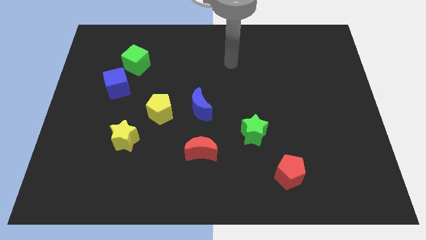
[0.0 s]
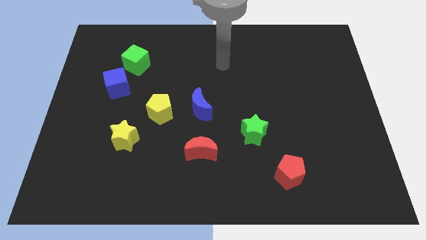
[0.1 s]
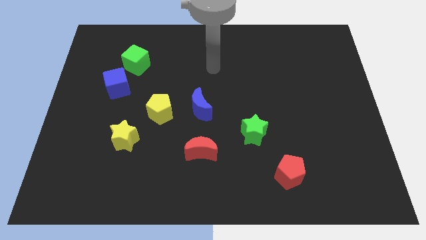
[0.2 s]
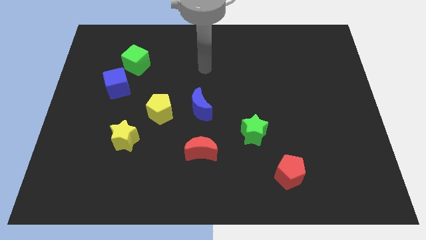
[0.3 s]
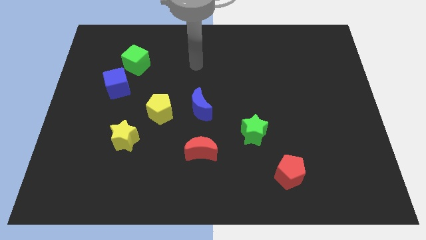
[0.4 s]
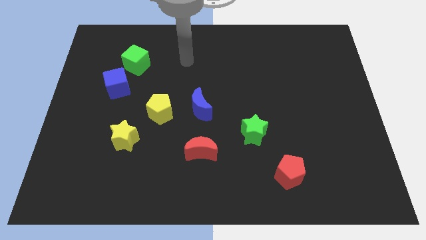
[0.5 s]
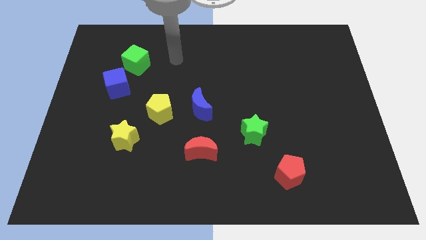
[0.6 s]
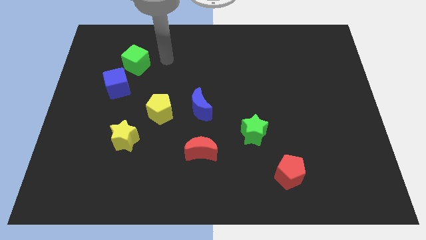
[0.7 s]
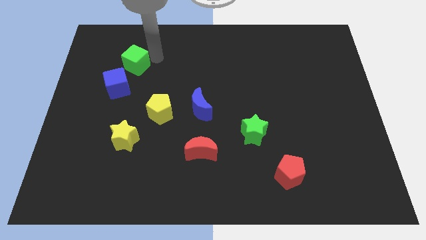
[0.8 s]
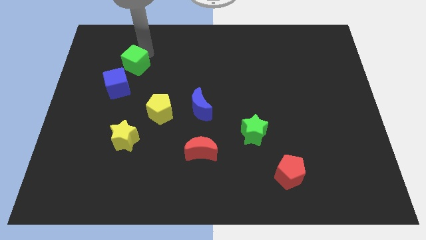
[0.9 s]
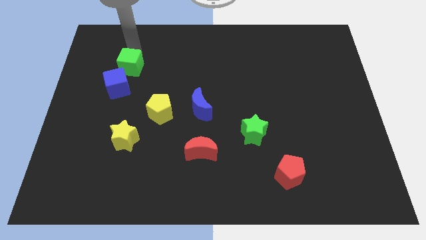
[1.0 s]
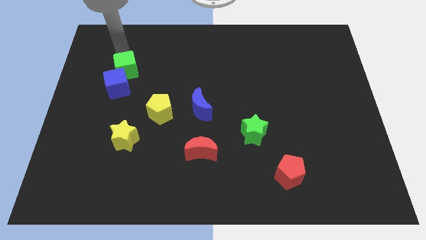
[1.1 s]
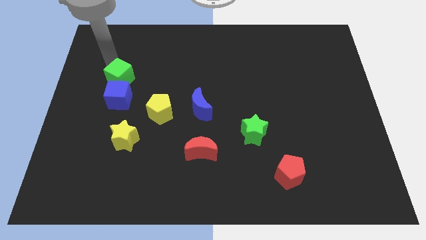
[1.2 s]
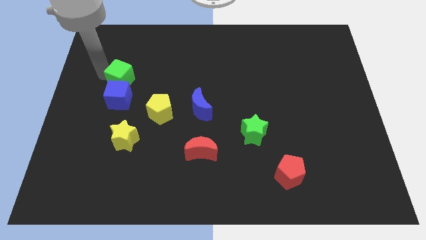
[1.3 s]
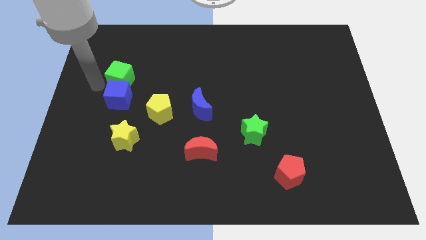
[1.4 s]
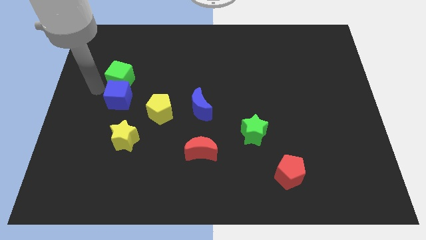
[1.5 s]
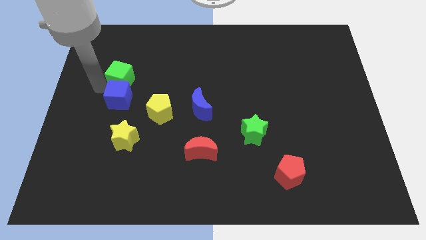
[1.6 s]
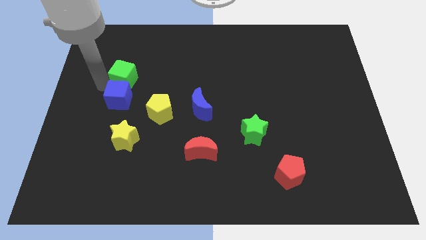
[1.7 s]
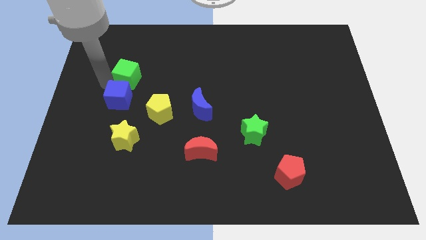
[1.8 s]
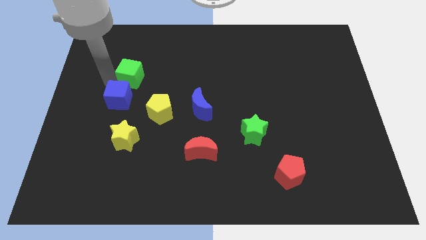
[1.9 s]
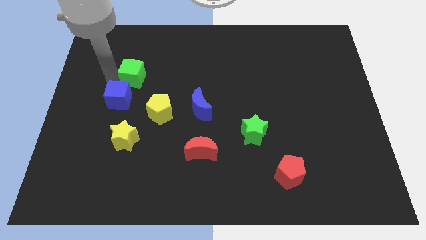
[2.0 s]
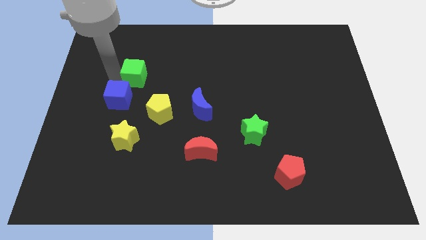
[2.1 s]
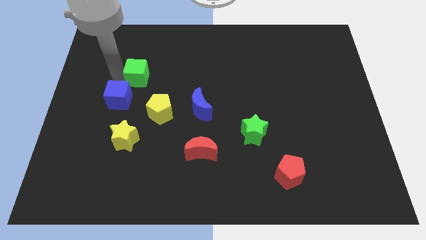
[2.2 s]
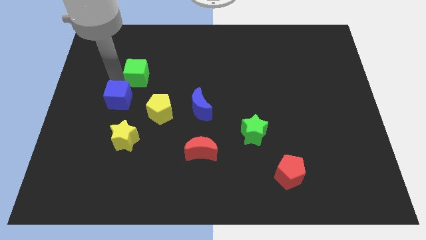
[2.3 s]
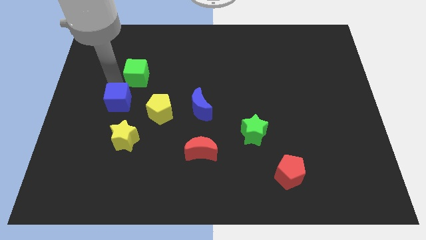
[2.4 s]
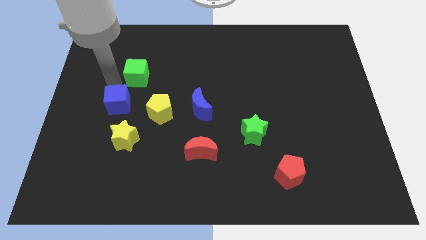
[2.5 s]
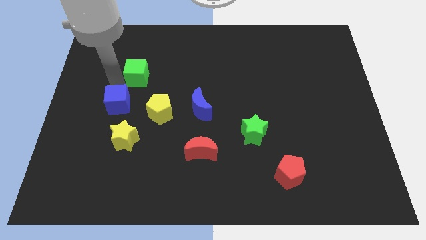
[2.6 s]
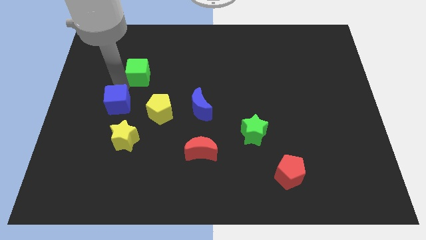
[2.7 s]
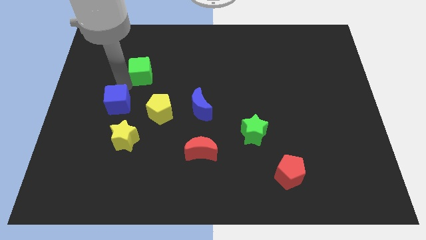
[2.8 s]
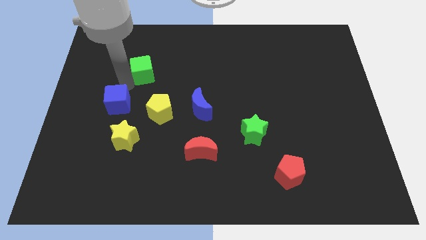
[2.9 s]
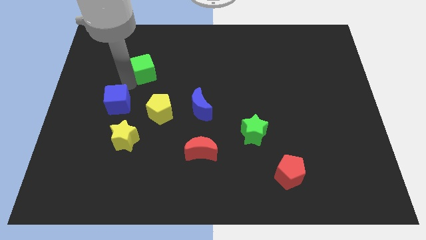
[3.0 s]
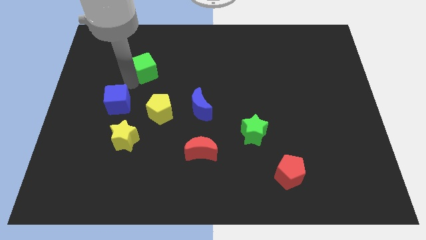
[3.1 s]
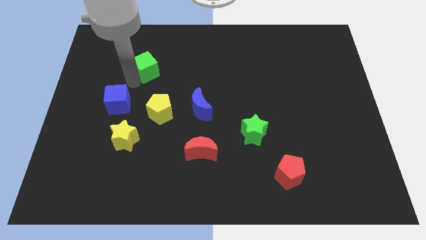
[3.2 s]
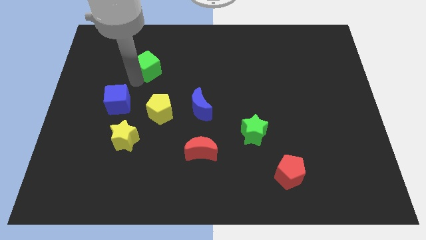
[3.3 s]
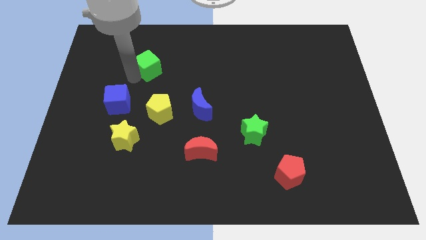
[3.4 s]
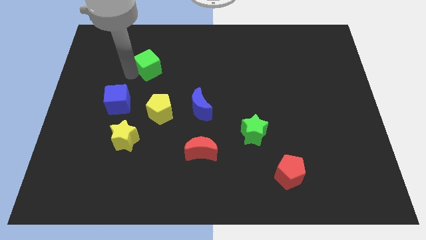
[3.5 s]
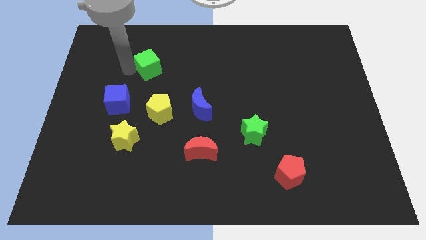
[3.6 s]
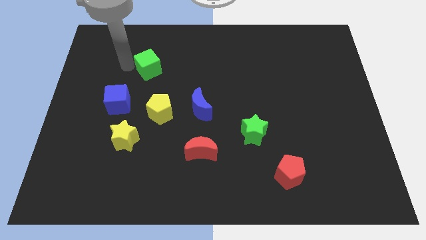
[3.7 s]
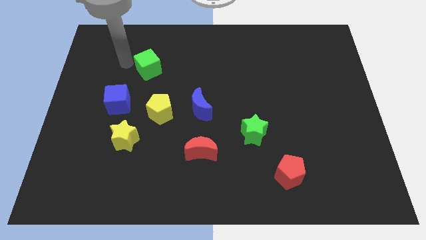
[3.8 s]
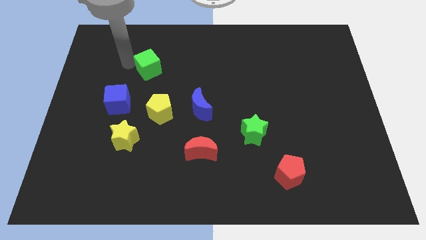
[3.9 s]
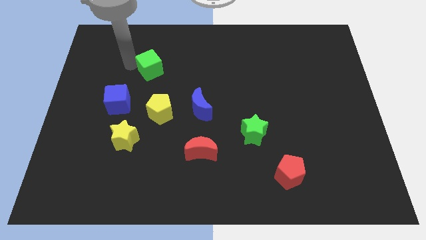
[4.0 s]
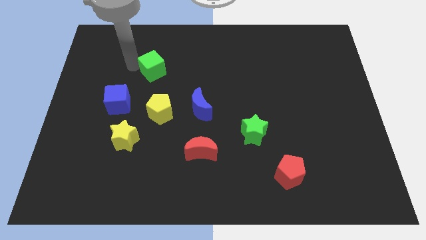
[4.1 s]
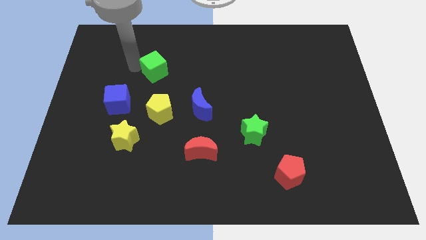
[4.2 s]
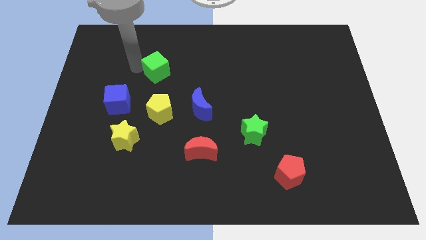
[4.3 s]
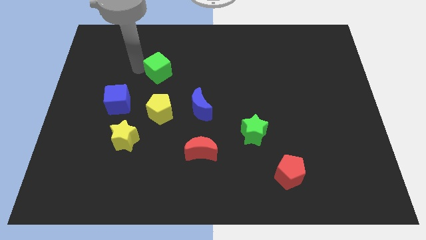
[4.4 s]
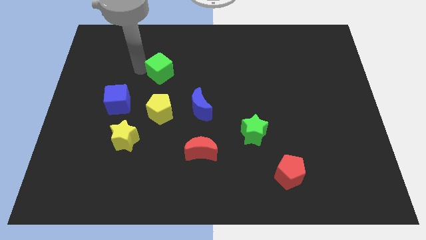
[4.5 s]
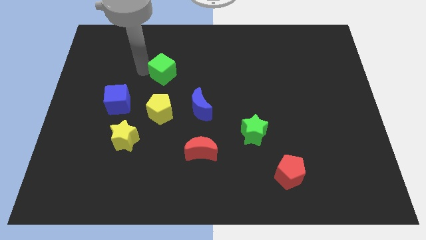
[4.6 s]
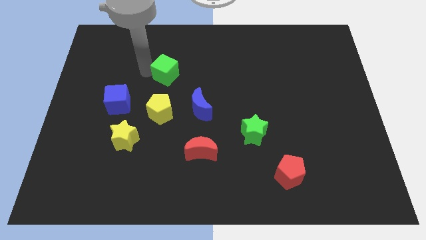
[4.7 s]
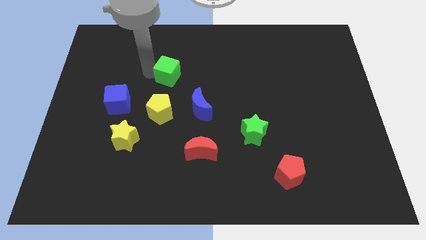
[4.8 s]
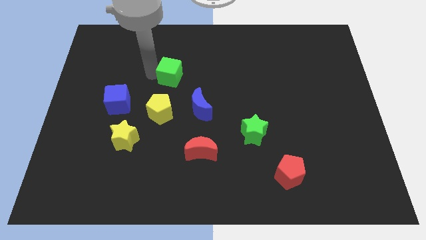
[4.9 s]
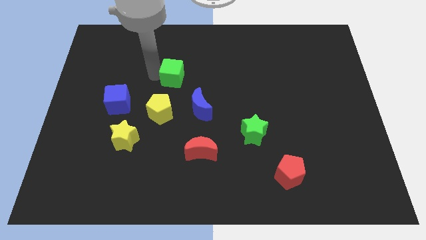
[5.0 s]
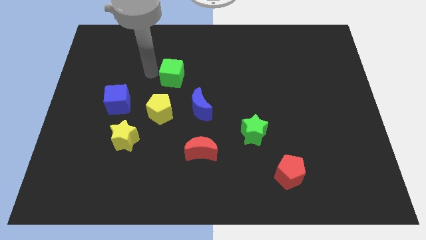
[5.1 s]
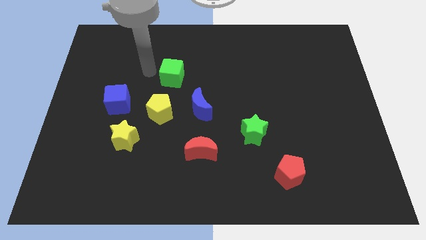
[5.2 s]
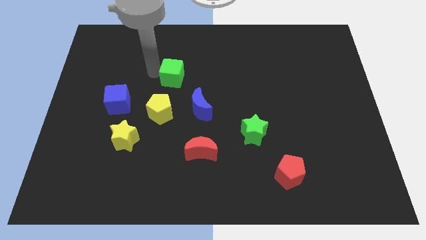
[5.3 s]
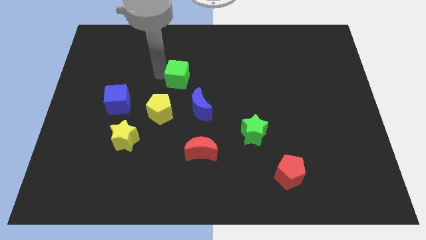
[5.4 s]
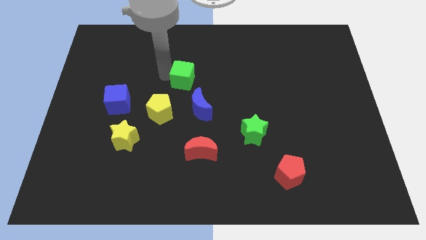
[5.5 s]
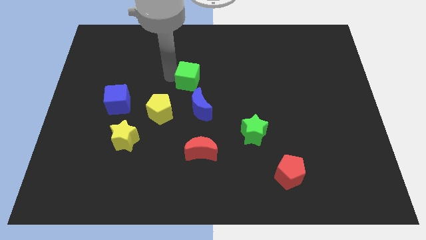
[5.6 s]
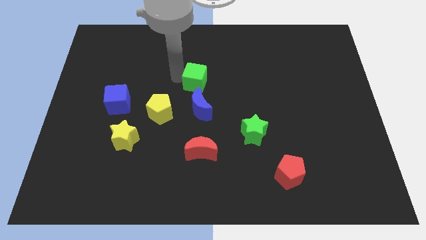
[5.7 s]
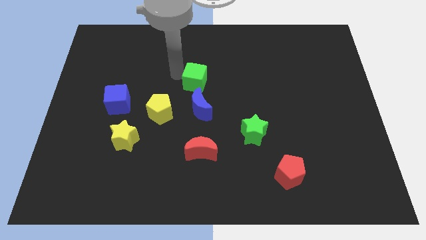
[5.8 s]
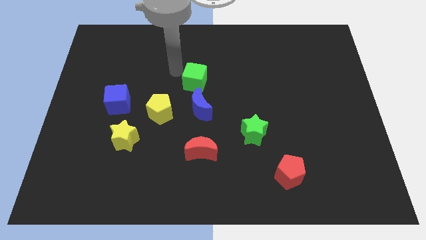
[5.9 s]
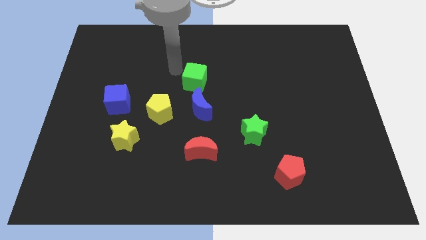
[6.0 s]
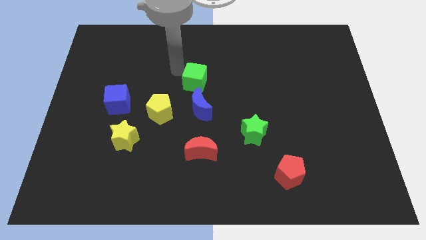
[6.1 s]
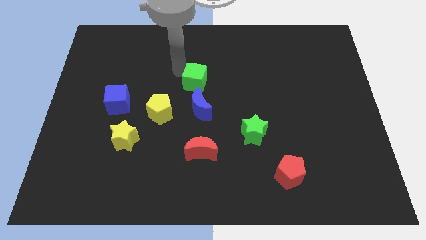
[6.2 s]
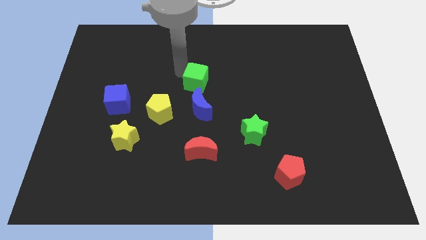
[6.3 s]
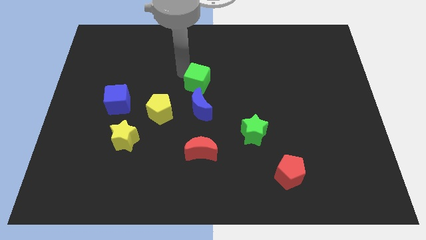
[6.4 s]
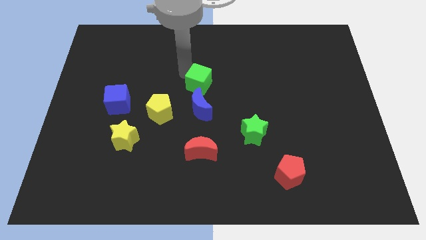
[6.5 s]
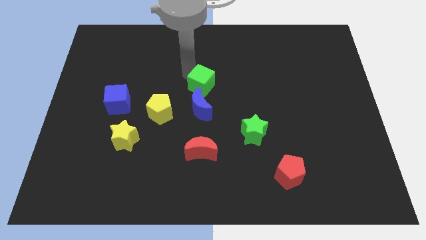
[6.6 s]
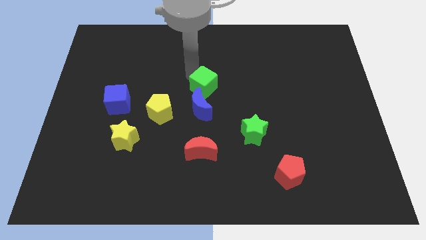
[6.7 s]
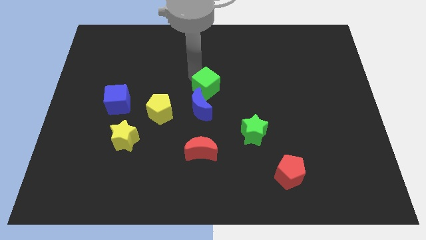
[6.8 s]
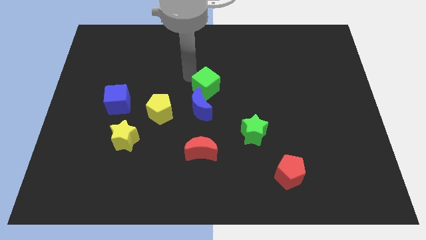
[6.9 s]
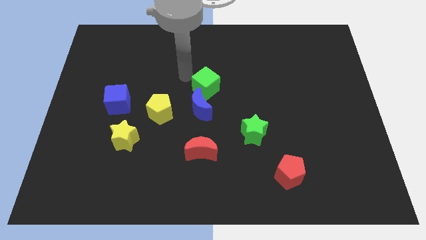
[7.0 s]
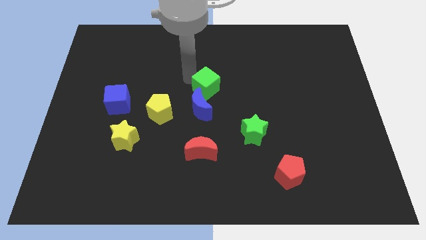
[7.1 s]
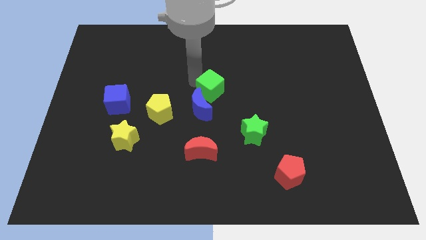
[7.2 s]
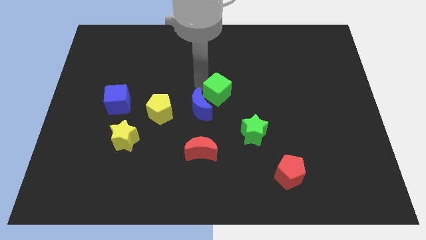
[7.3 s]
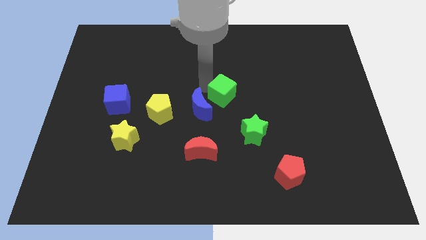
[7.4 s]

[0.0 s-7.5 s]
move the green cube just right of the blue moon

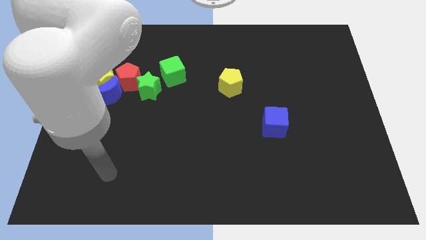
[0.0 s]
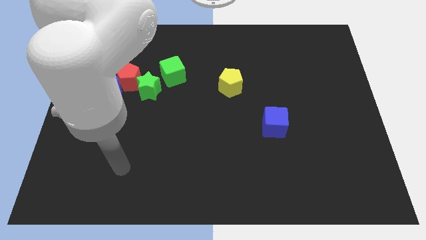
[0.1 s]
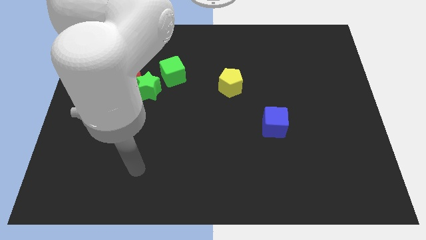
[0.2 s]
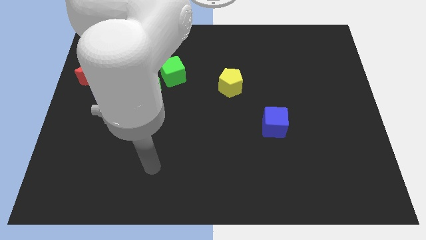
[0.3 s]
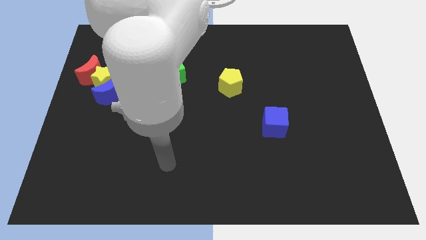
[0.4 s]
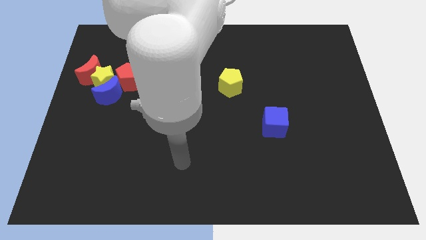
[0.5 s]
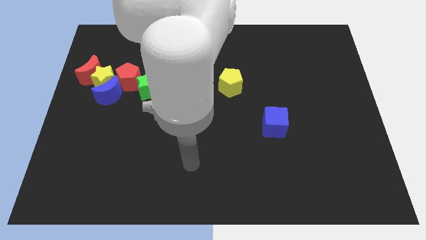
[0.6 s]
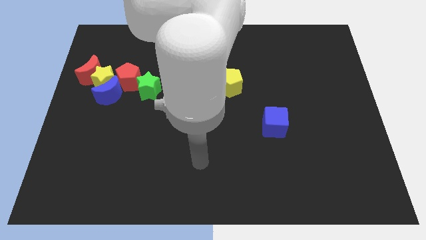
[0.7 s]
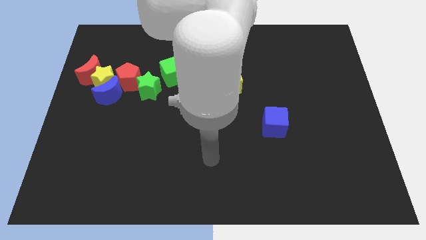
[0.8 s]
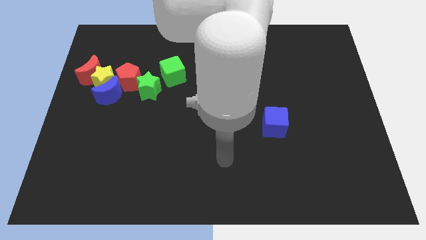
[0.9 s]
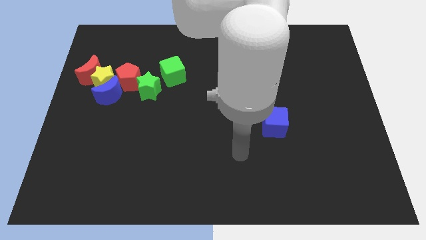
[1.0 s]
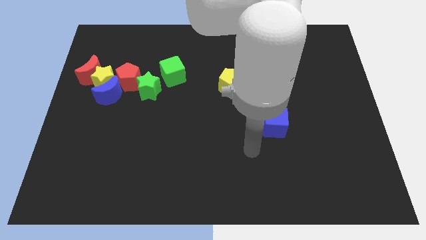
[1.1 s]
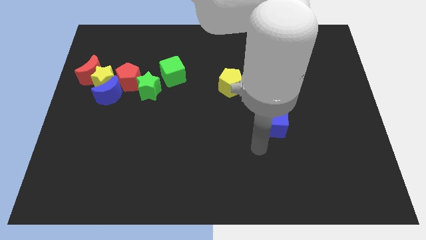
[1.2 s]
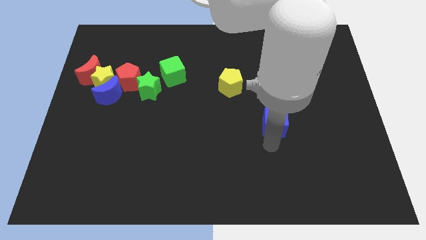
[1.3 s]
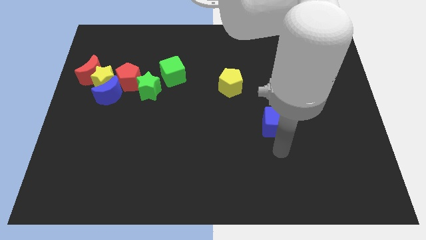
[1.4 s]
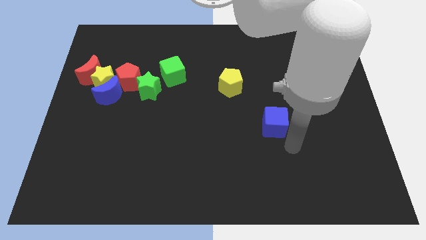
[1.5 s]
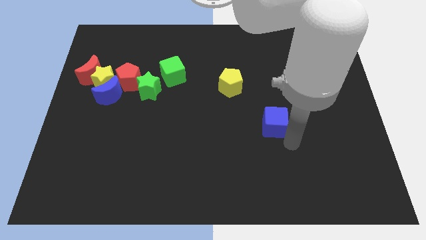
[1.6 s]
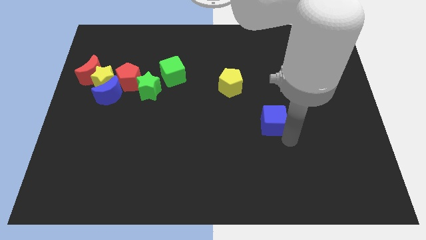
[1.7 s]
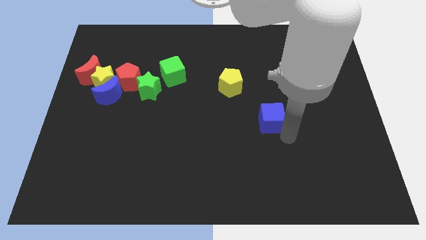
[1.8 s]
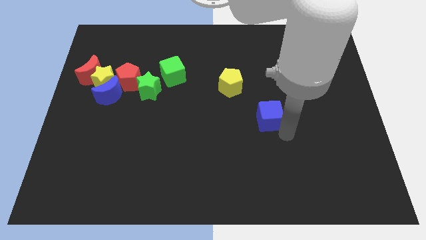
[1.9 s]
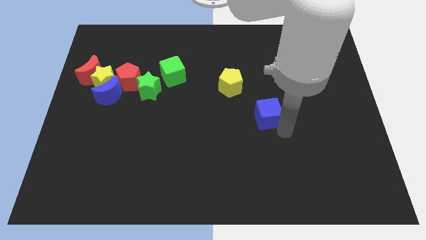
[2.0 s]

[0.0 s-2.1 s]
put the blue cube to the bottom right side of the yellow pentagon
